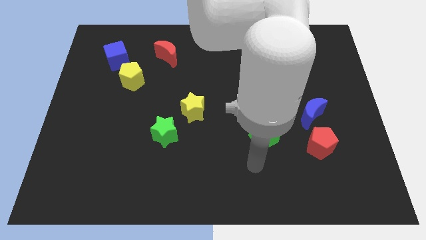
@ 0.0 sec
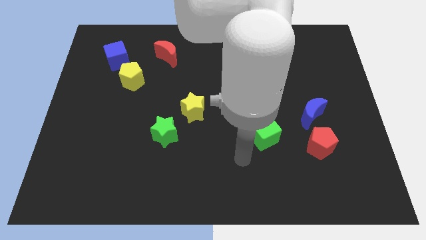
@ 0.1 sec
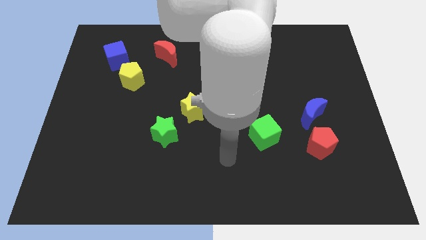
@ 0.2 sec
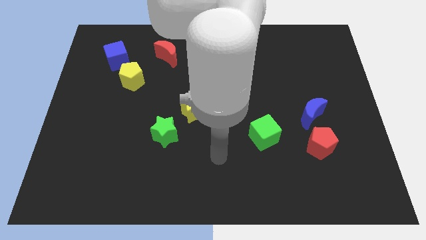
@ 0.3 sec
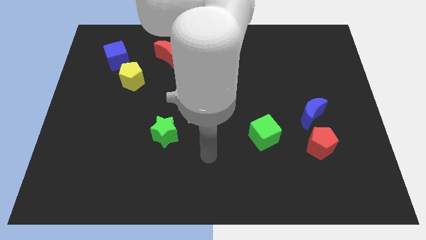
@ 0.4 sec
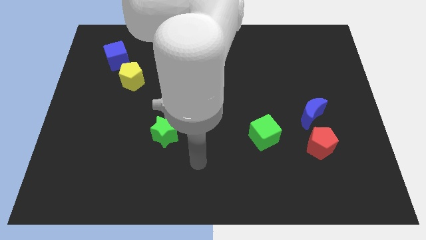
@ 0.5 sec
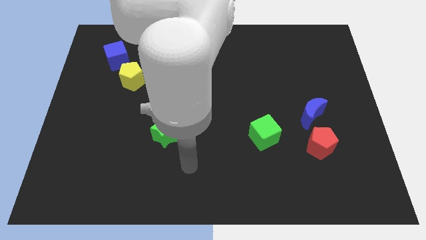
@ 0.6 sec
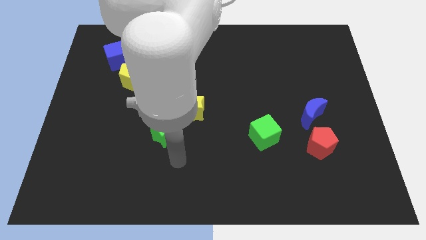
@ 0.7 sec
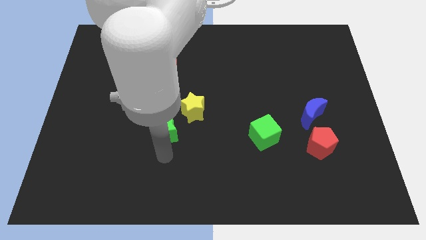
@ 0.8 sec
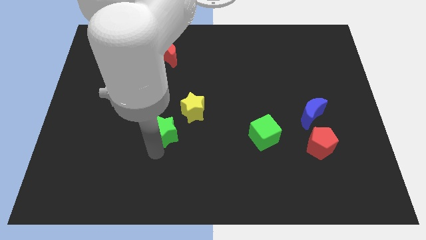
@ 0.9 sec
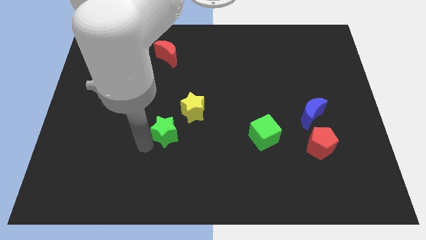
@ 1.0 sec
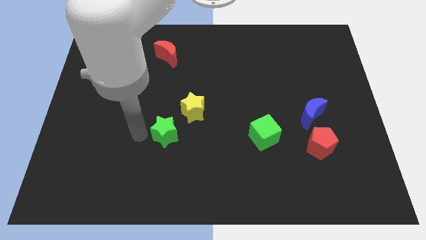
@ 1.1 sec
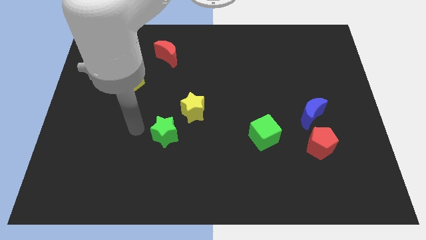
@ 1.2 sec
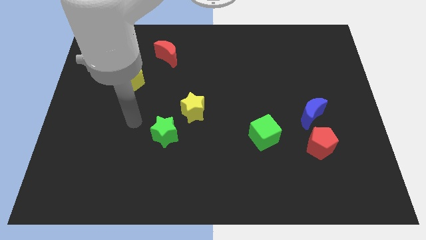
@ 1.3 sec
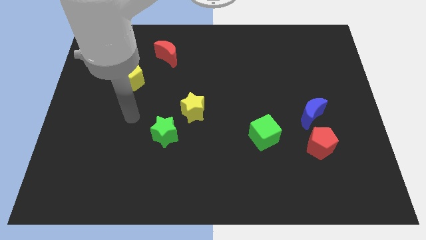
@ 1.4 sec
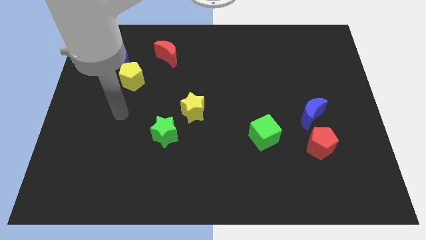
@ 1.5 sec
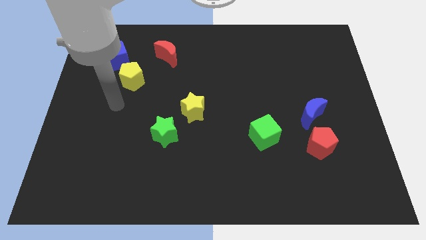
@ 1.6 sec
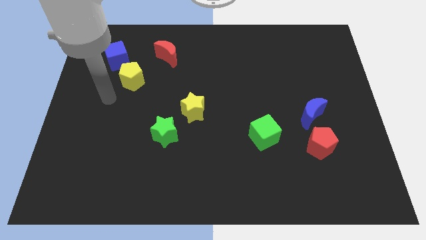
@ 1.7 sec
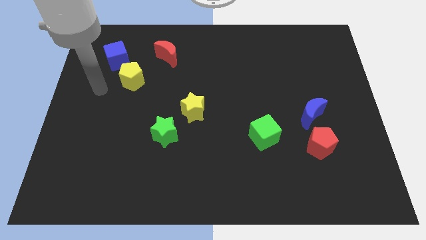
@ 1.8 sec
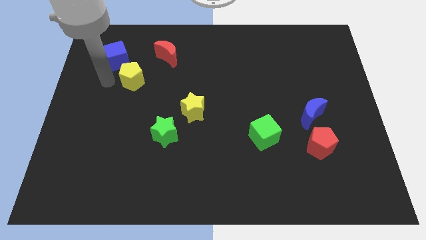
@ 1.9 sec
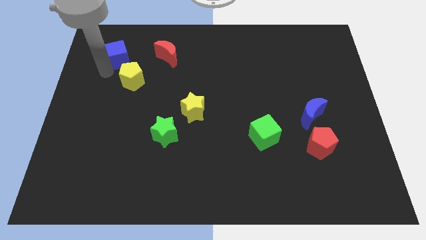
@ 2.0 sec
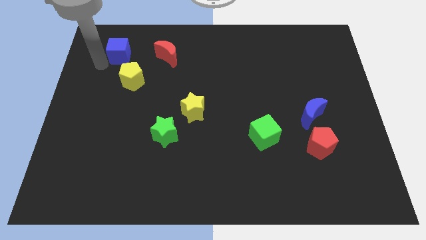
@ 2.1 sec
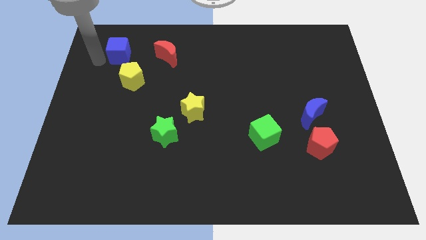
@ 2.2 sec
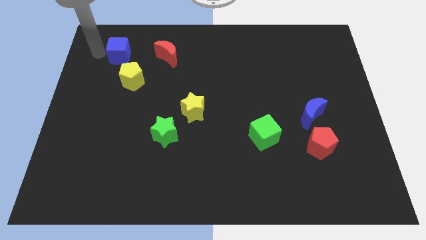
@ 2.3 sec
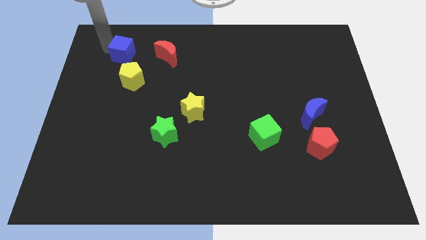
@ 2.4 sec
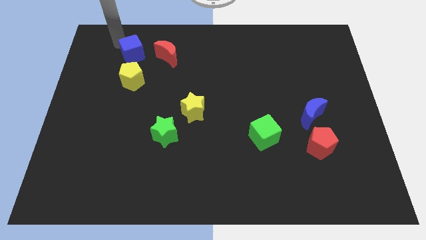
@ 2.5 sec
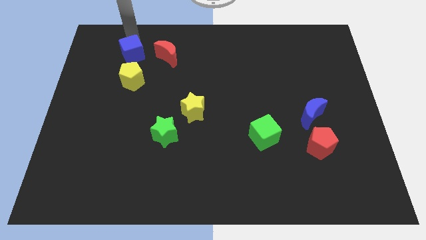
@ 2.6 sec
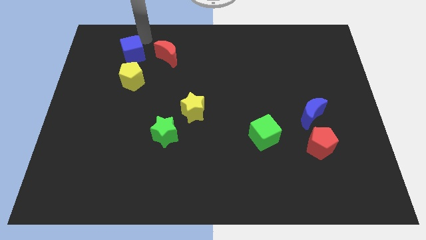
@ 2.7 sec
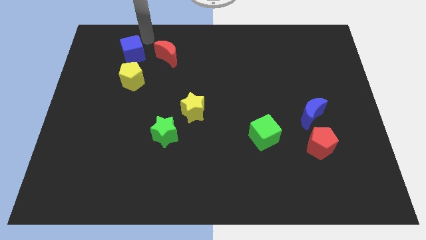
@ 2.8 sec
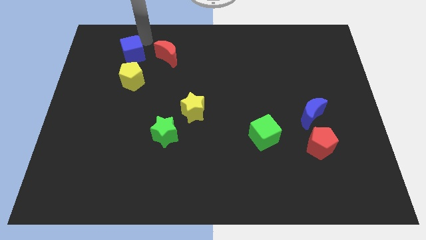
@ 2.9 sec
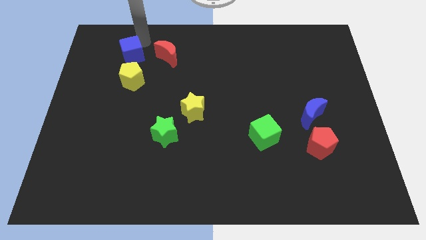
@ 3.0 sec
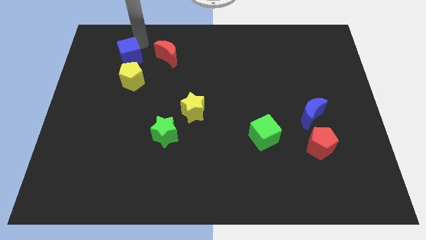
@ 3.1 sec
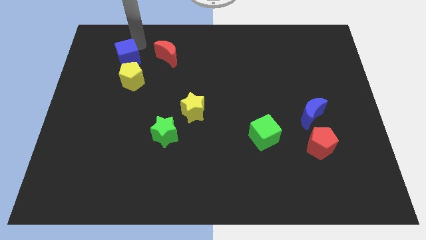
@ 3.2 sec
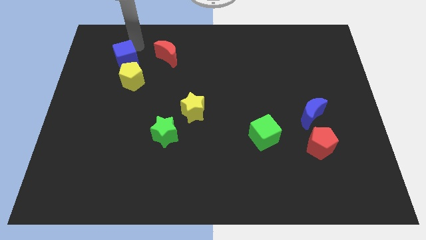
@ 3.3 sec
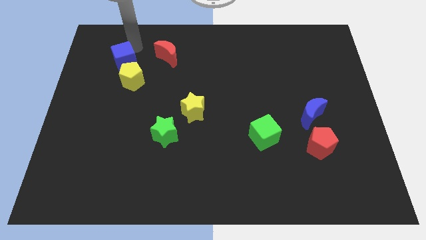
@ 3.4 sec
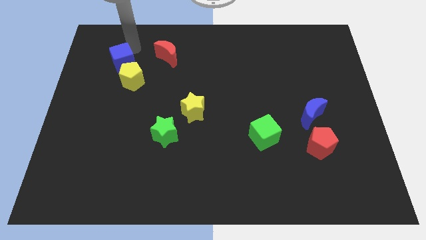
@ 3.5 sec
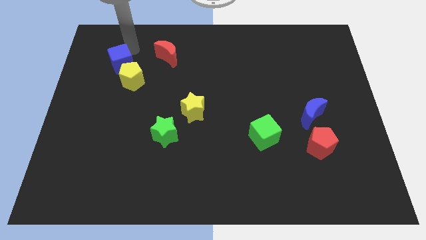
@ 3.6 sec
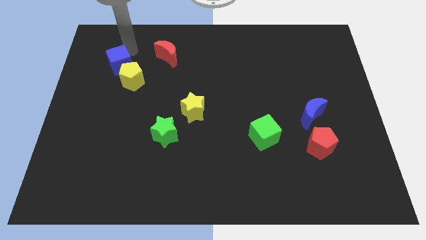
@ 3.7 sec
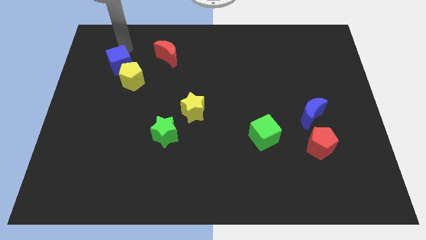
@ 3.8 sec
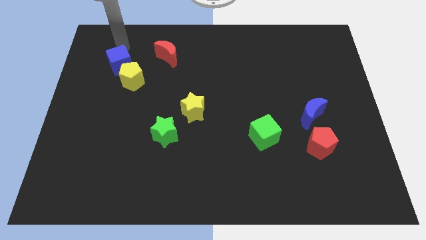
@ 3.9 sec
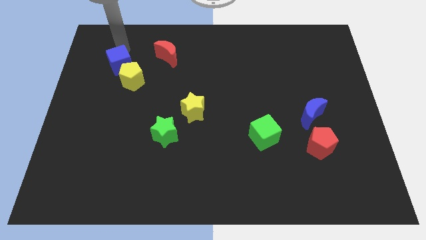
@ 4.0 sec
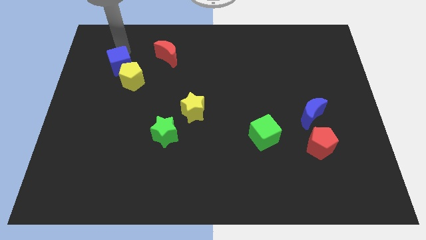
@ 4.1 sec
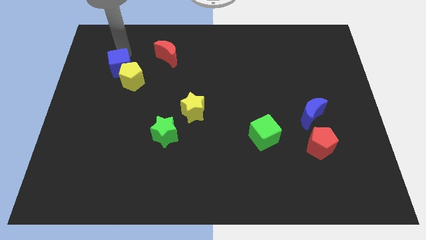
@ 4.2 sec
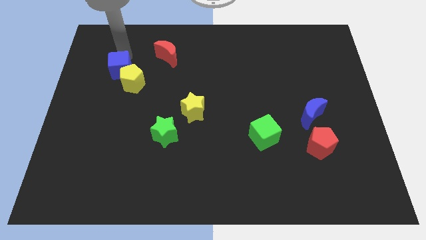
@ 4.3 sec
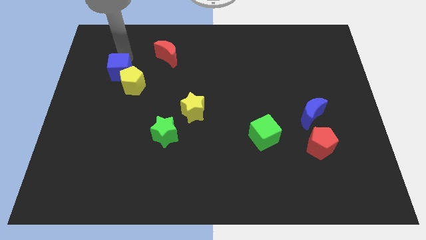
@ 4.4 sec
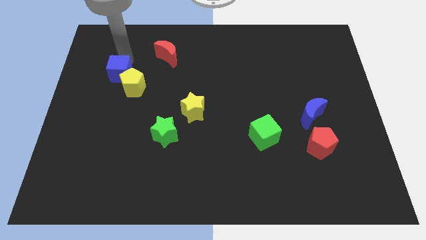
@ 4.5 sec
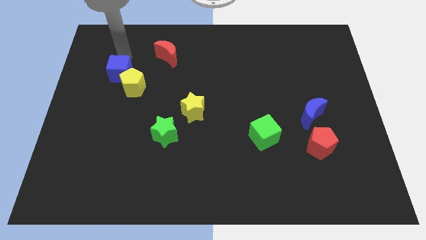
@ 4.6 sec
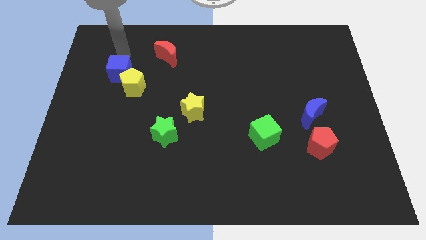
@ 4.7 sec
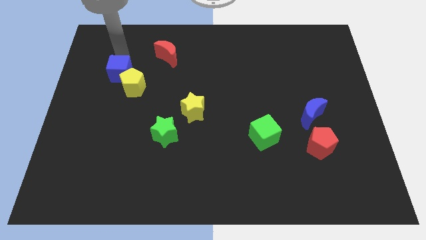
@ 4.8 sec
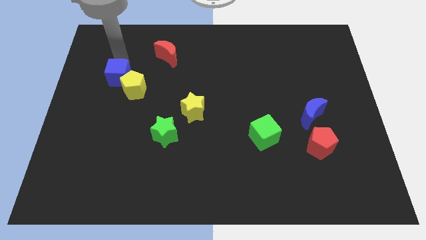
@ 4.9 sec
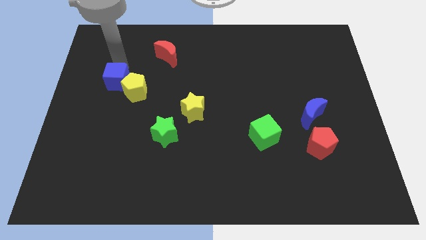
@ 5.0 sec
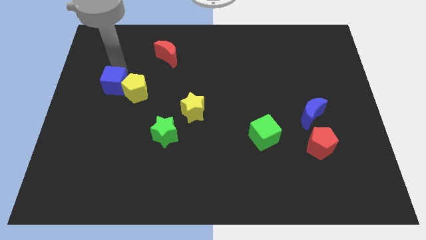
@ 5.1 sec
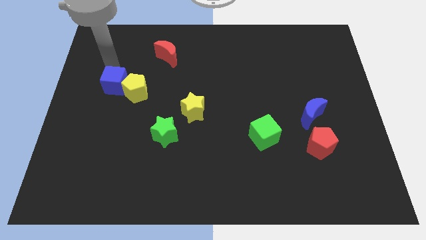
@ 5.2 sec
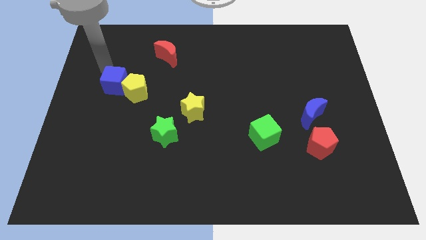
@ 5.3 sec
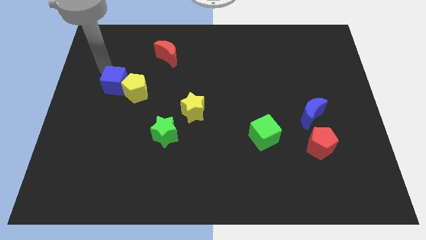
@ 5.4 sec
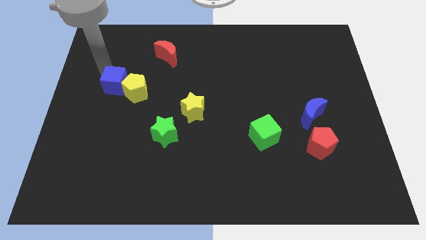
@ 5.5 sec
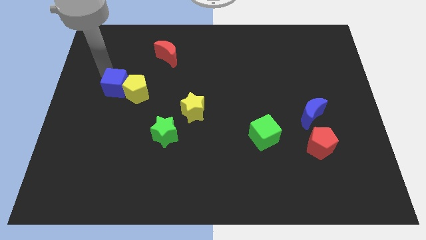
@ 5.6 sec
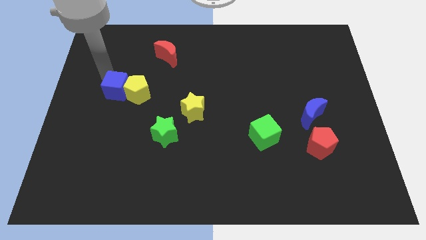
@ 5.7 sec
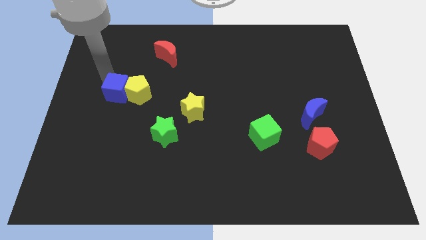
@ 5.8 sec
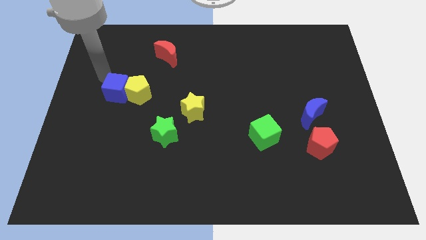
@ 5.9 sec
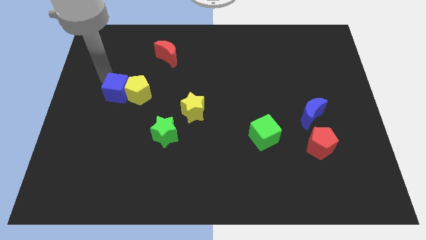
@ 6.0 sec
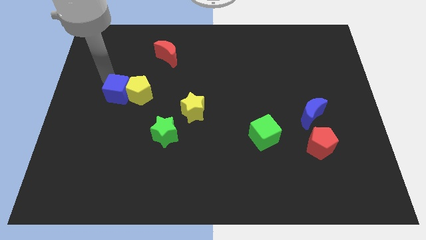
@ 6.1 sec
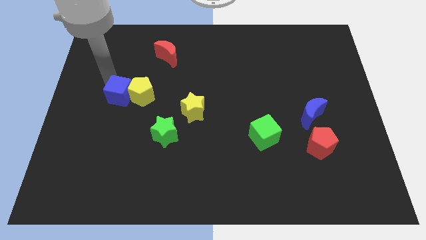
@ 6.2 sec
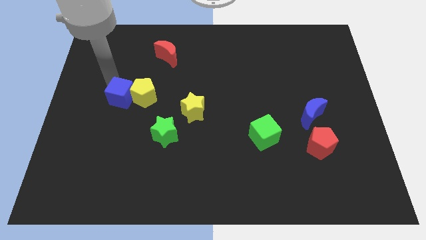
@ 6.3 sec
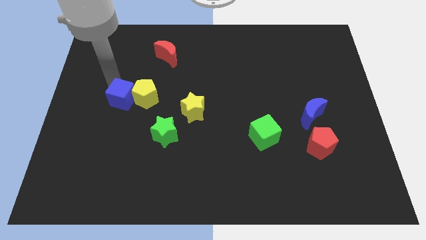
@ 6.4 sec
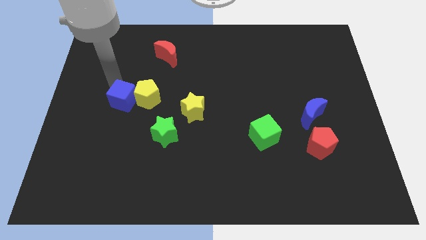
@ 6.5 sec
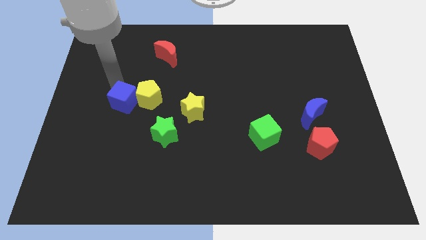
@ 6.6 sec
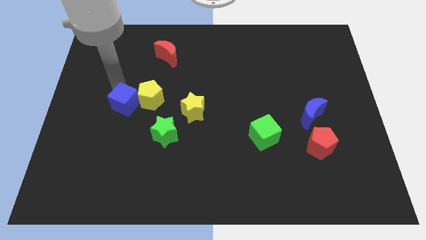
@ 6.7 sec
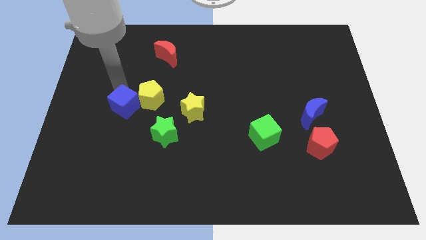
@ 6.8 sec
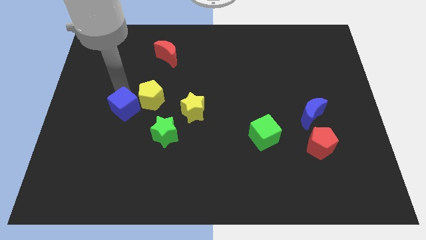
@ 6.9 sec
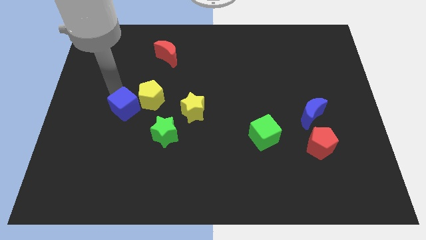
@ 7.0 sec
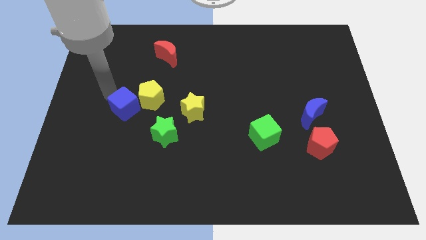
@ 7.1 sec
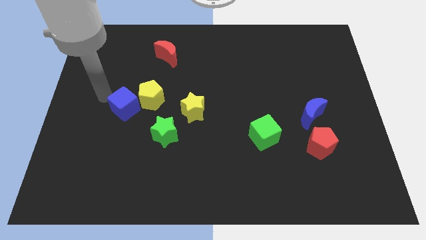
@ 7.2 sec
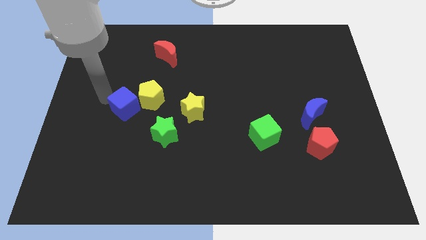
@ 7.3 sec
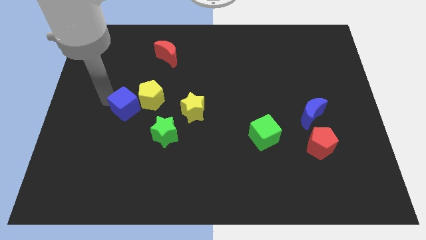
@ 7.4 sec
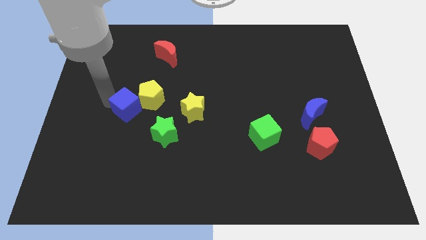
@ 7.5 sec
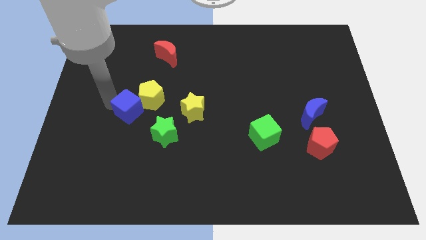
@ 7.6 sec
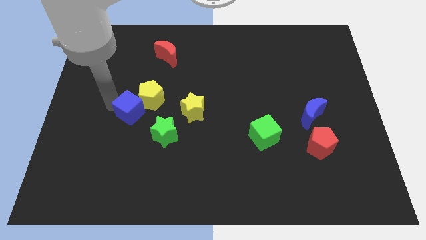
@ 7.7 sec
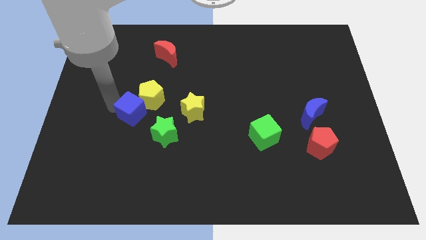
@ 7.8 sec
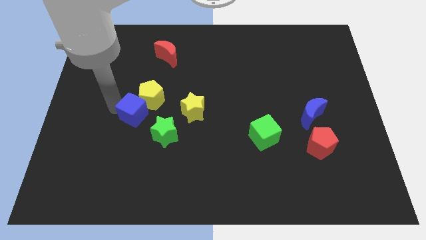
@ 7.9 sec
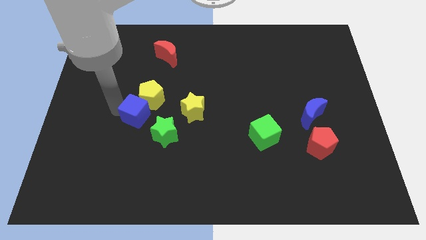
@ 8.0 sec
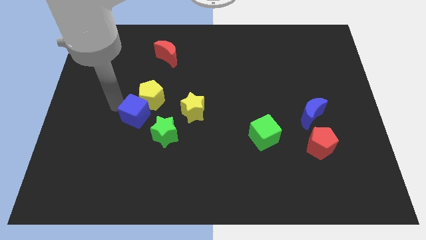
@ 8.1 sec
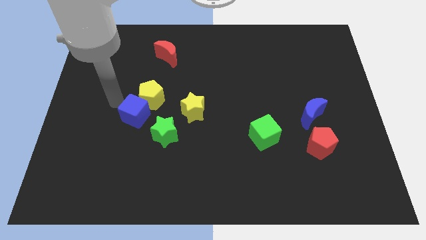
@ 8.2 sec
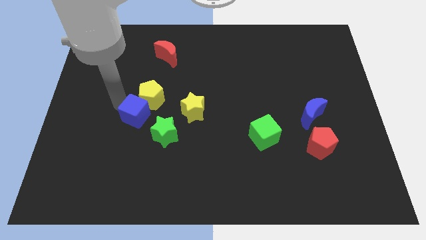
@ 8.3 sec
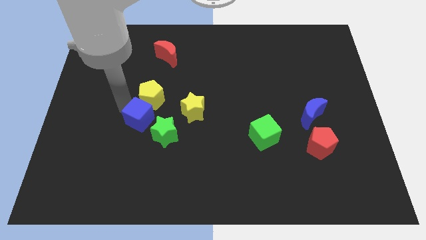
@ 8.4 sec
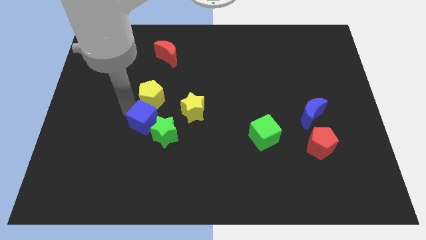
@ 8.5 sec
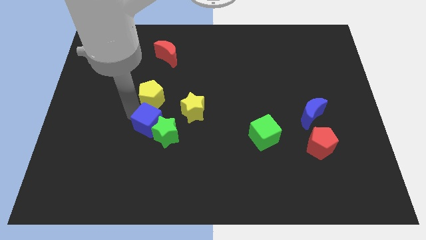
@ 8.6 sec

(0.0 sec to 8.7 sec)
slide the blue cube towards the green star
